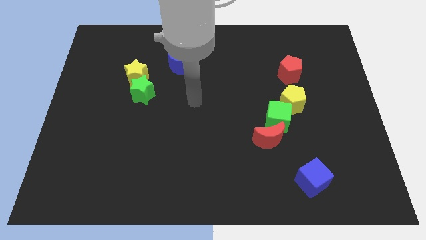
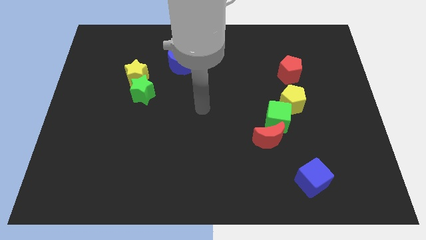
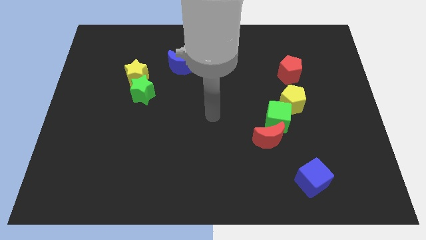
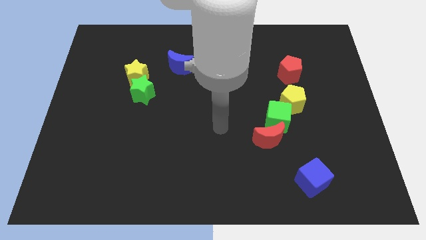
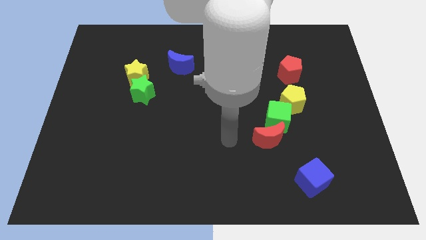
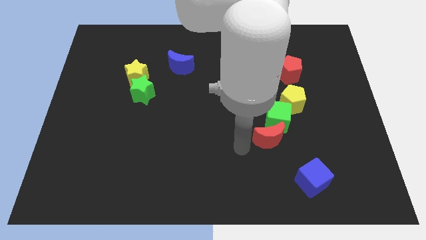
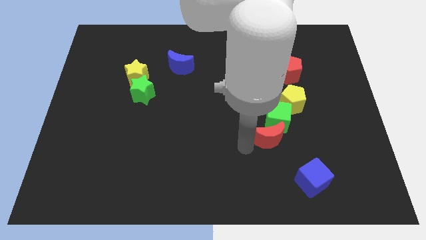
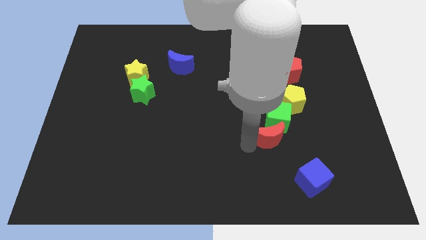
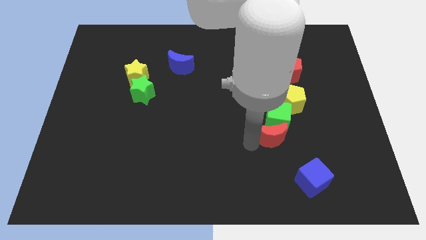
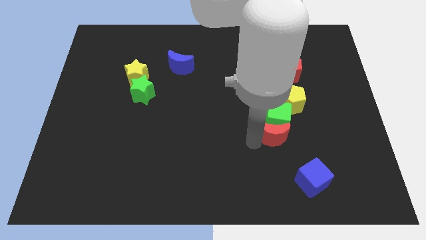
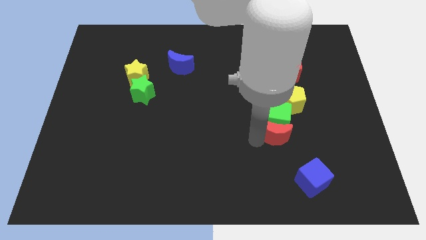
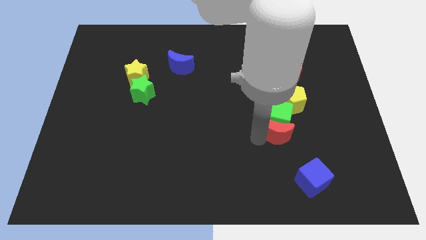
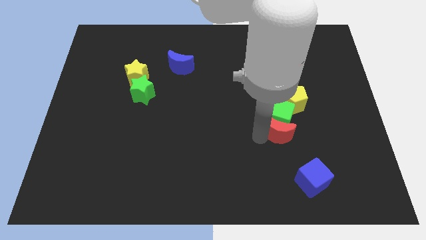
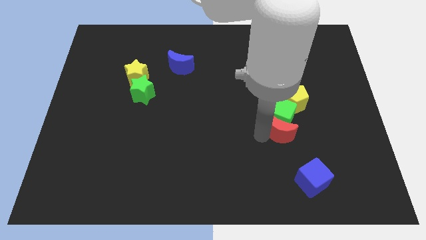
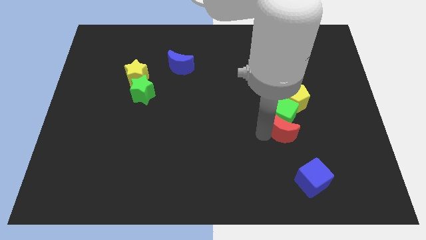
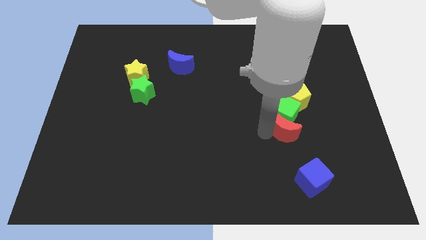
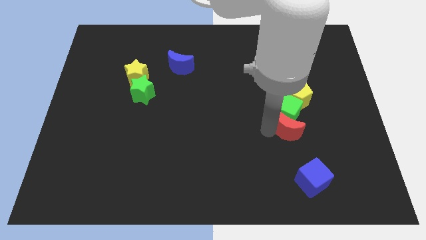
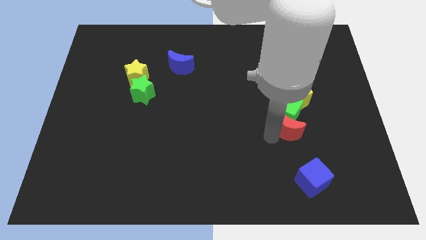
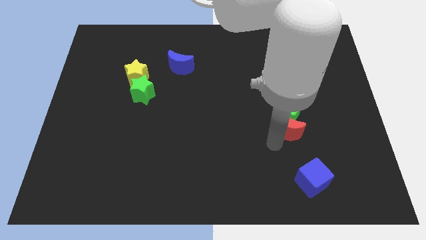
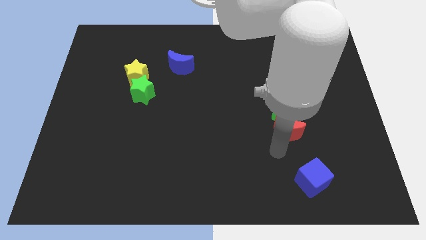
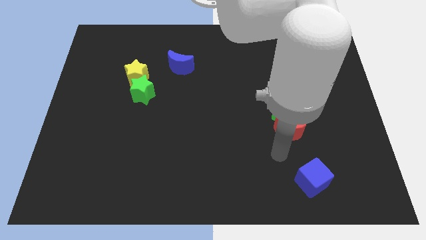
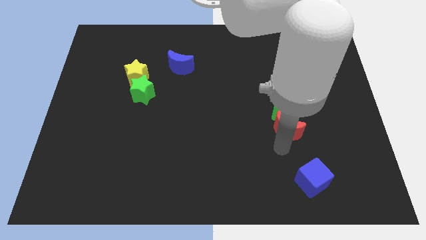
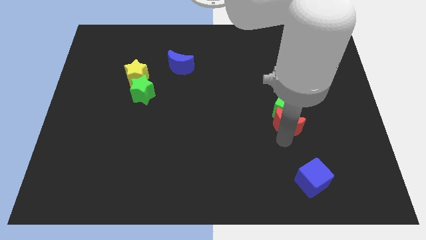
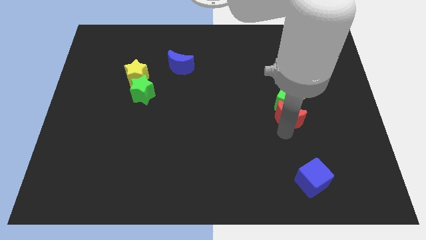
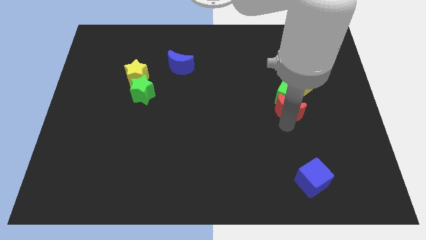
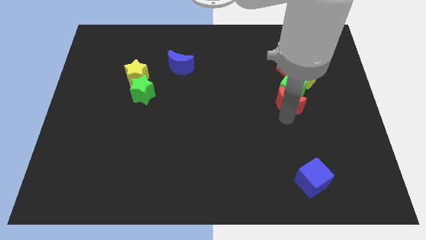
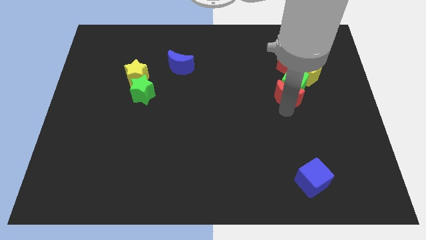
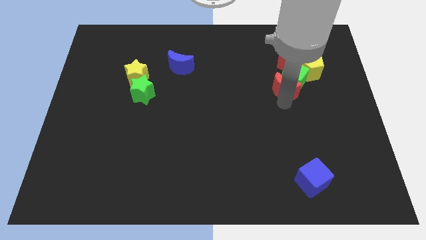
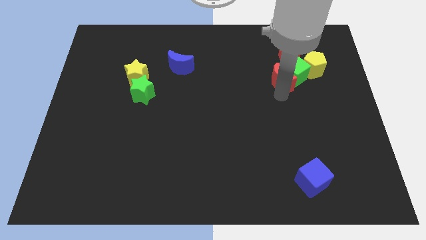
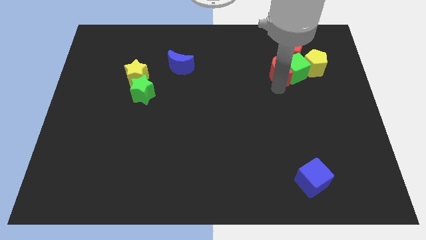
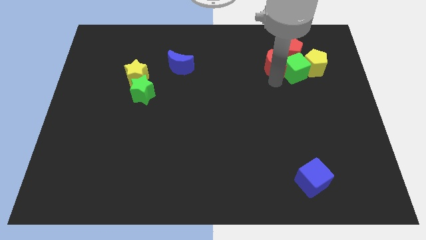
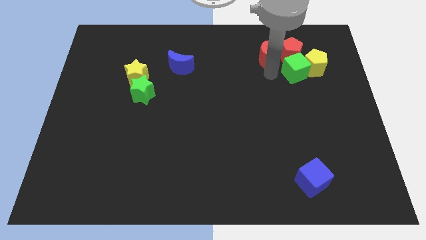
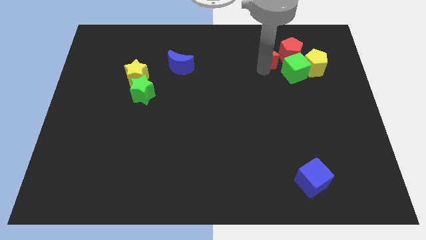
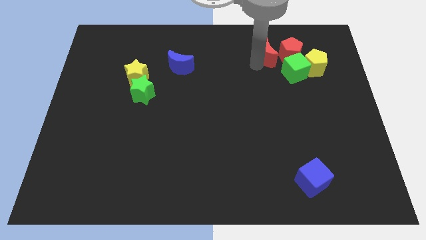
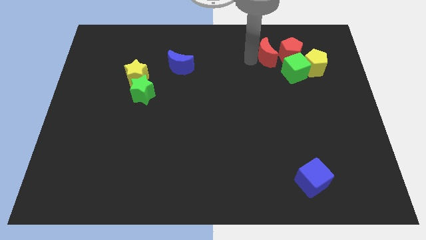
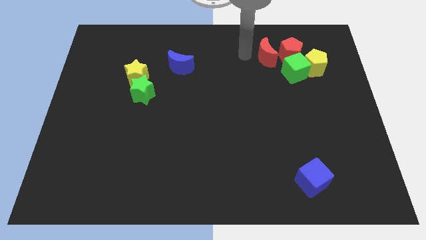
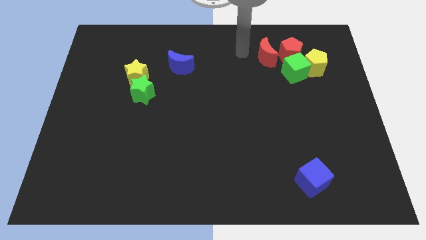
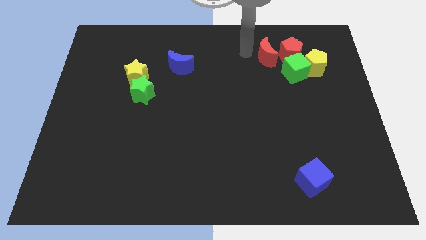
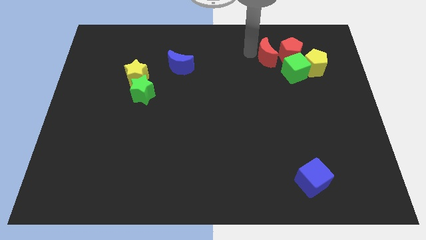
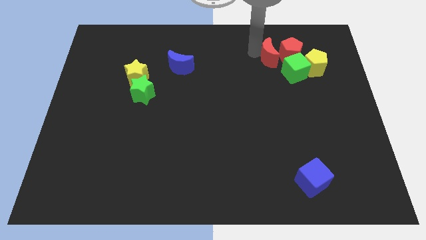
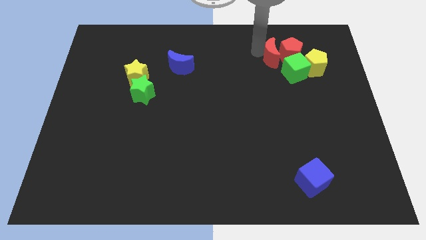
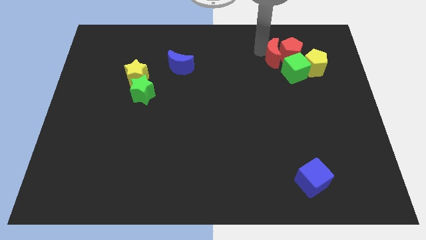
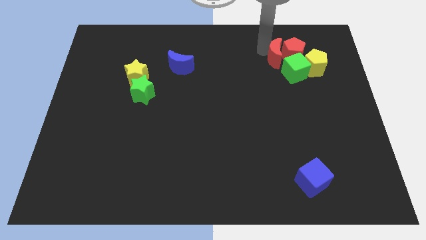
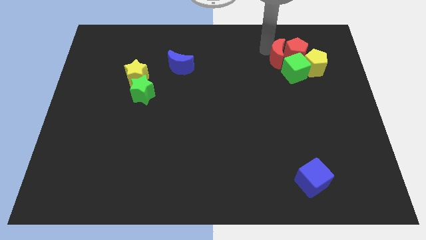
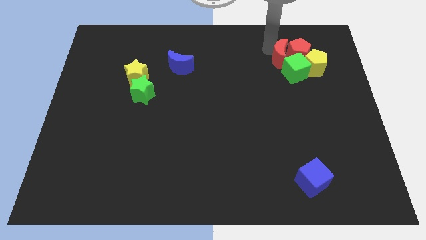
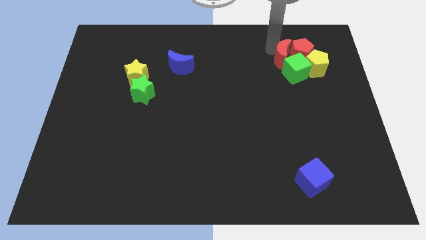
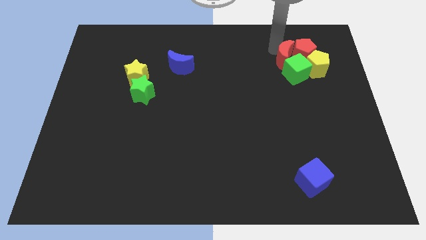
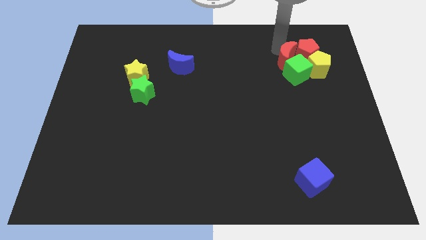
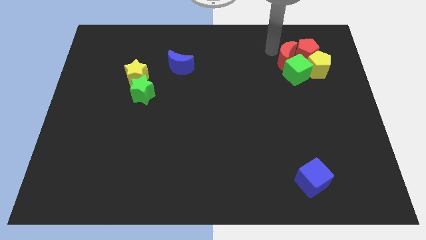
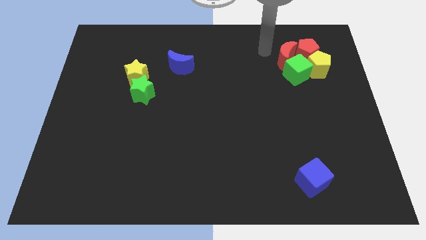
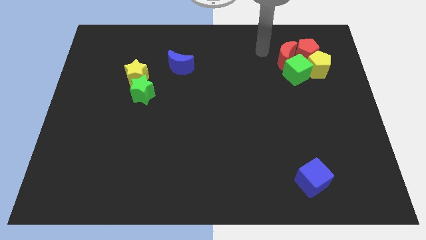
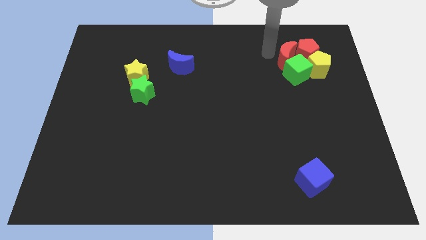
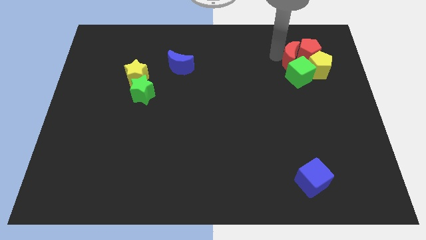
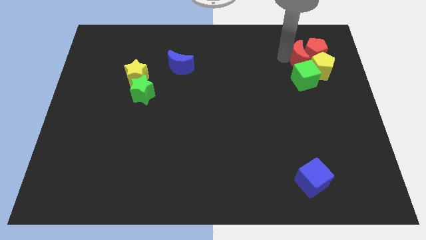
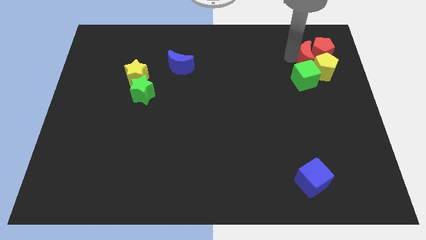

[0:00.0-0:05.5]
push the red moon to the yellow pentagon

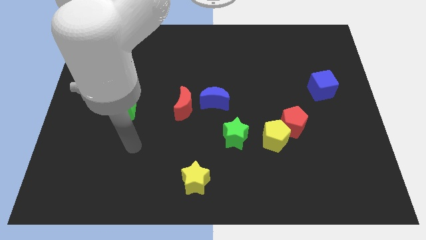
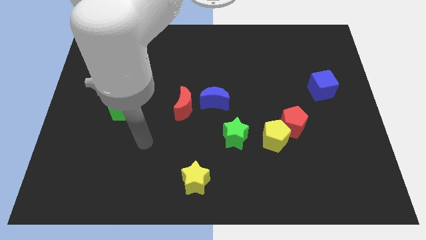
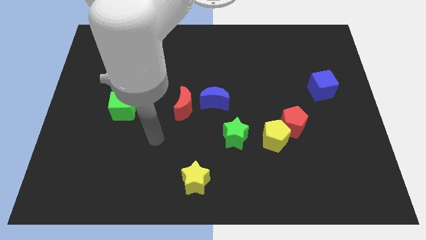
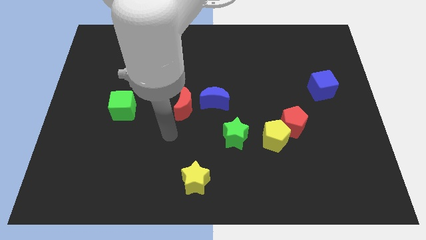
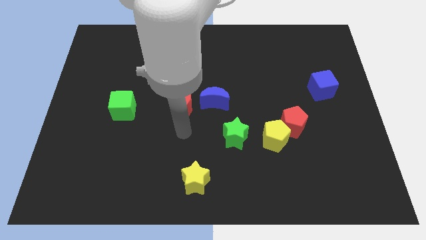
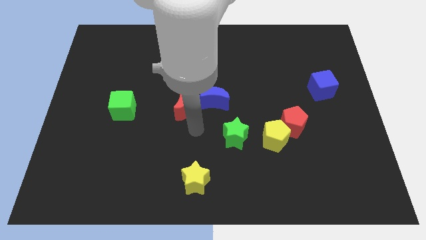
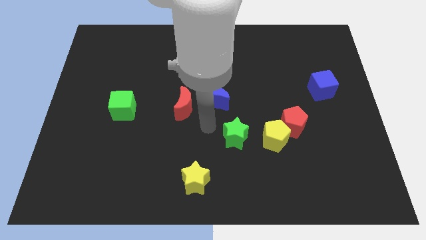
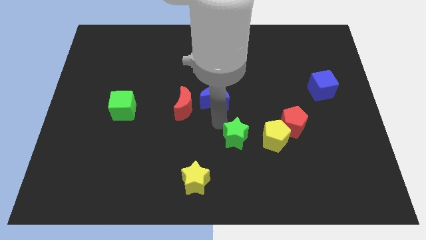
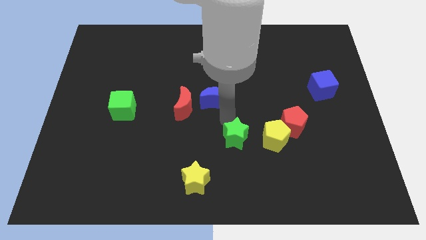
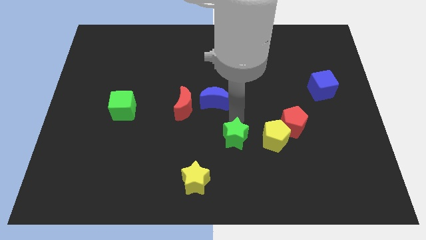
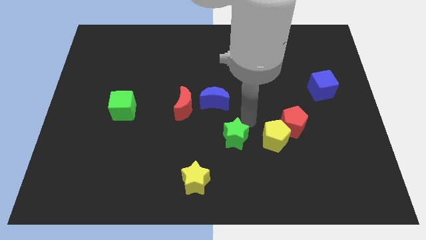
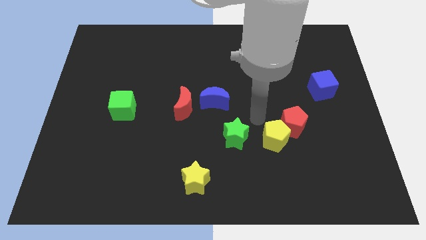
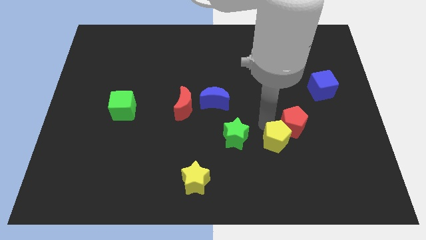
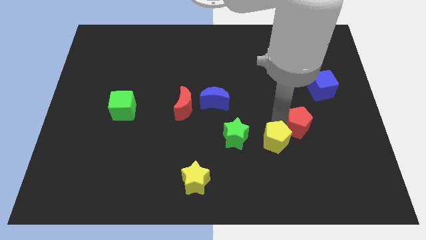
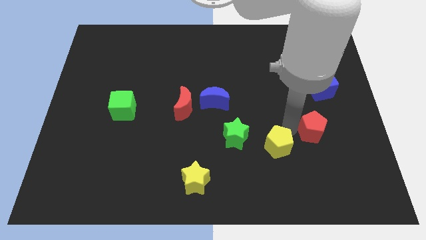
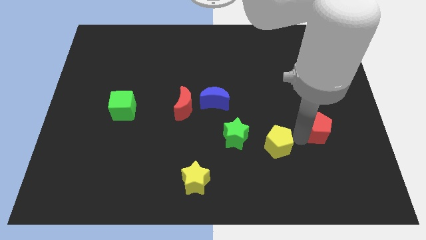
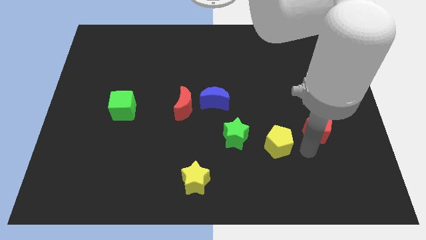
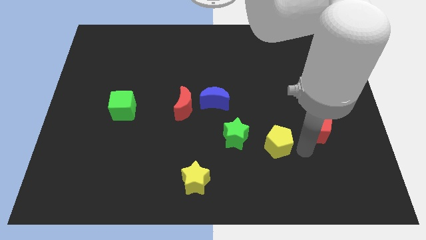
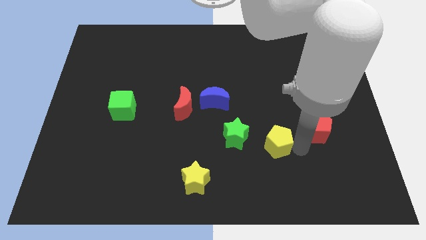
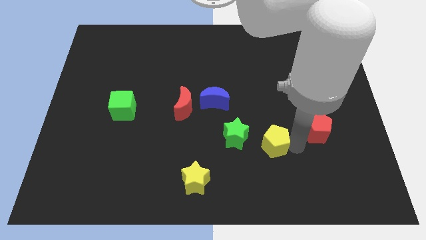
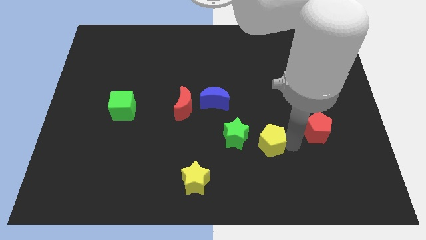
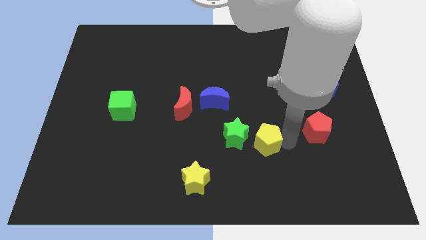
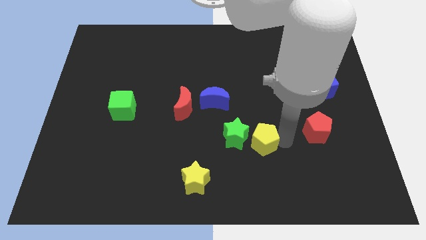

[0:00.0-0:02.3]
move the yellow pentagon towards the green star

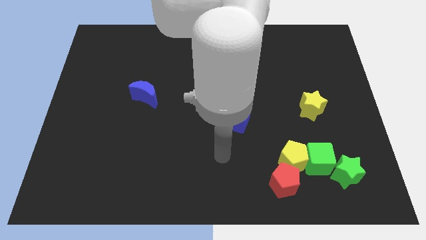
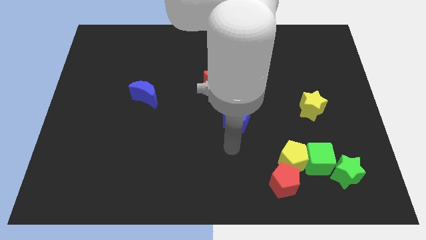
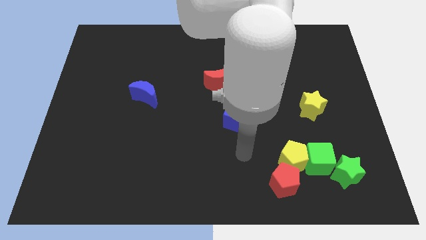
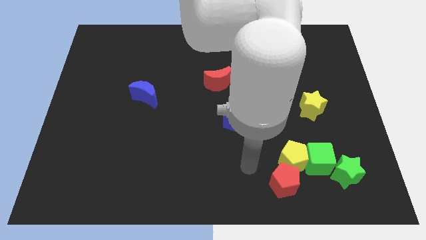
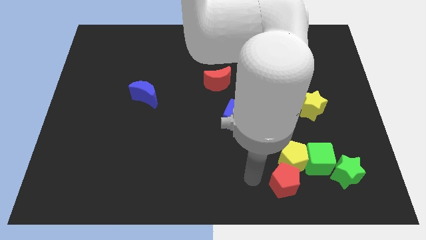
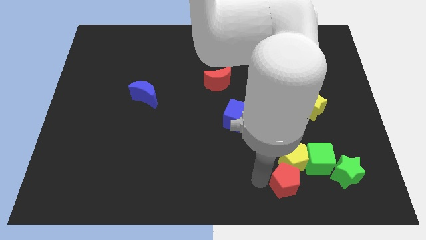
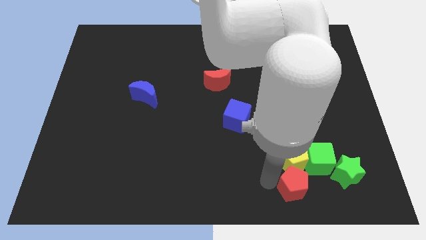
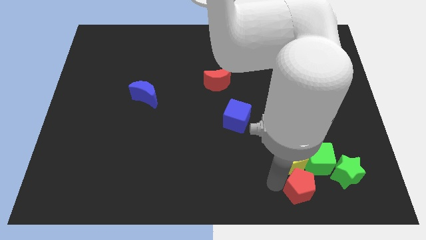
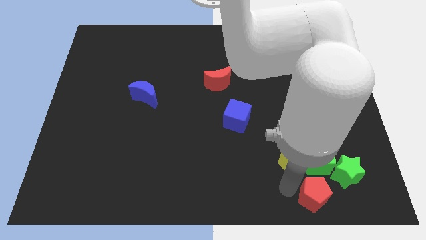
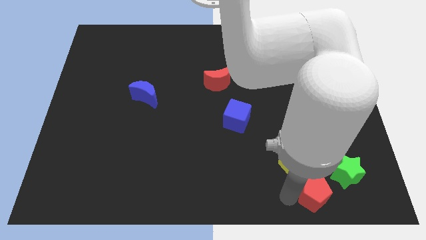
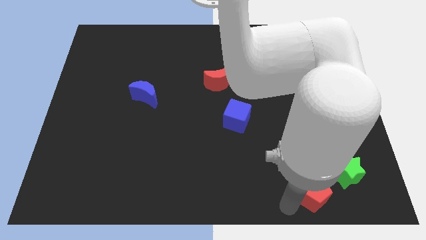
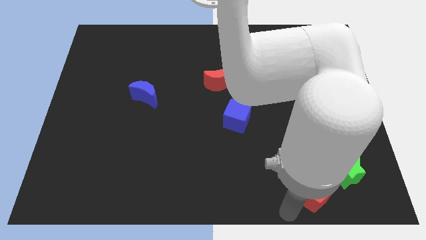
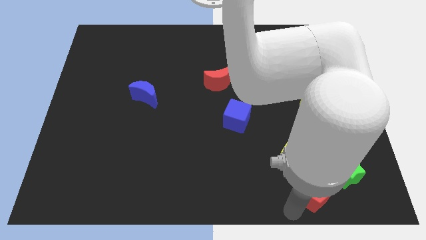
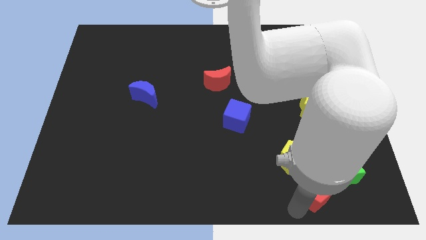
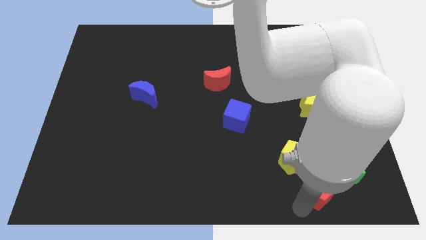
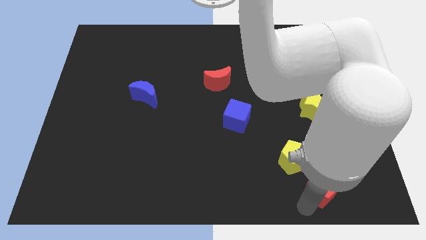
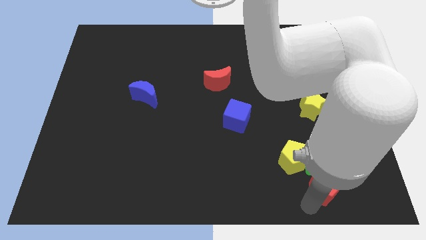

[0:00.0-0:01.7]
move the red pentagon next to the green star
